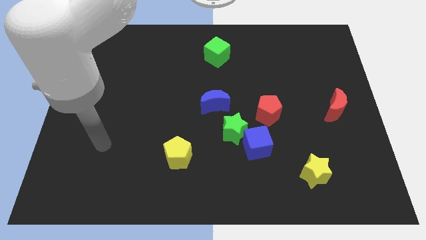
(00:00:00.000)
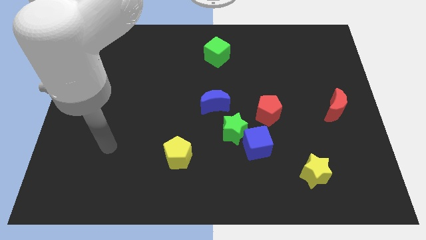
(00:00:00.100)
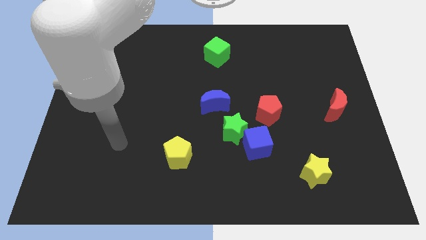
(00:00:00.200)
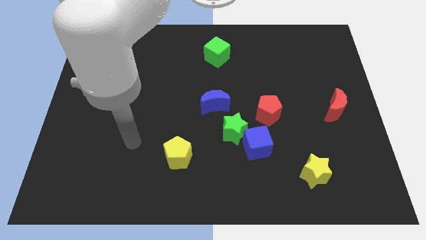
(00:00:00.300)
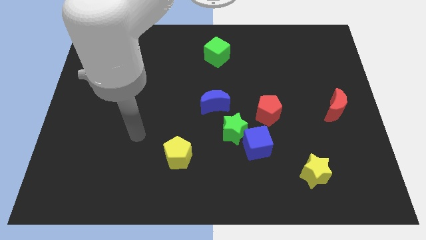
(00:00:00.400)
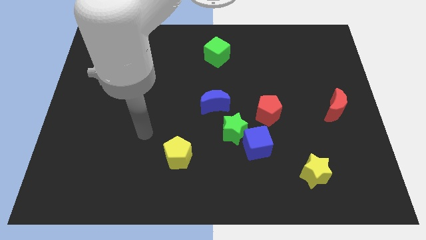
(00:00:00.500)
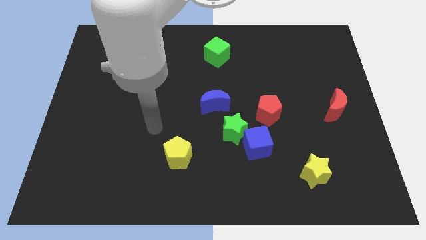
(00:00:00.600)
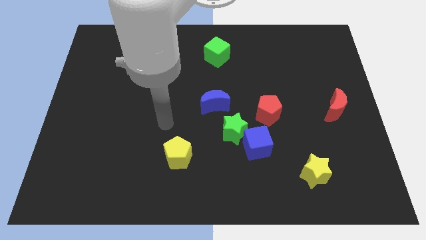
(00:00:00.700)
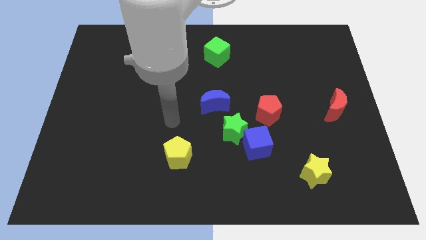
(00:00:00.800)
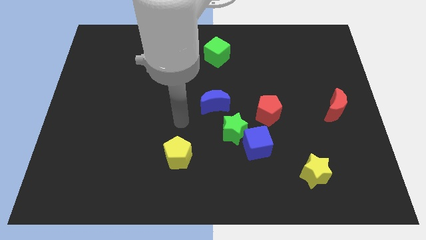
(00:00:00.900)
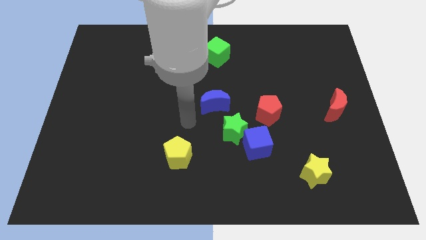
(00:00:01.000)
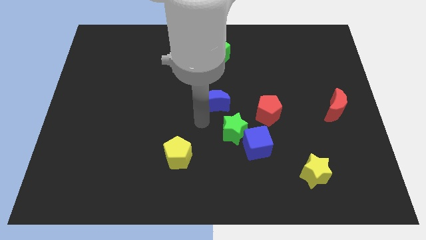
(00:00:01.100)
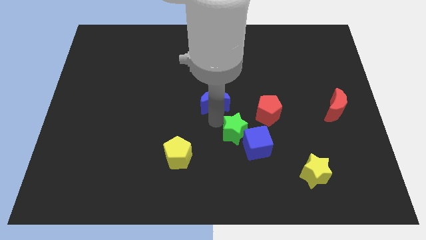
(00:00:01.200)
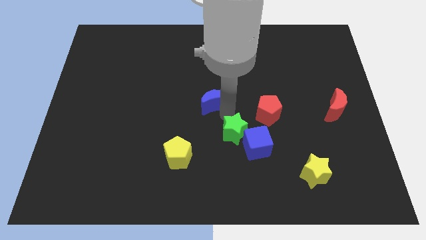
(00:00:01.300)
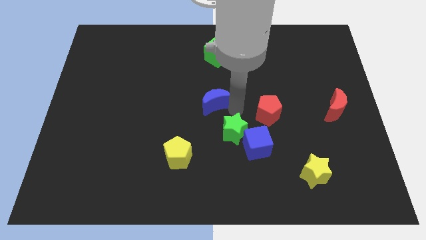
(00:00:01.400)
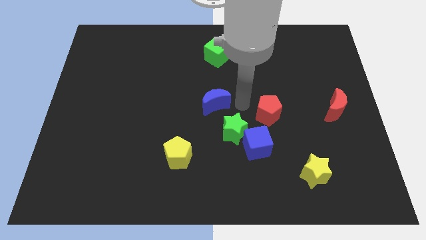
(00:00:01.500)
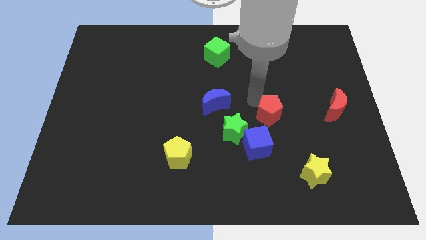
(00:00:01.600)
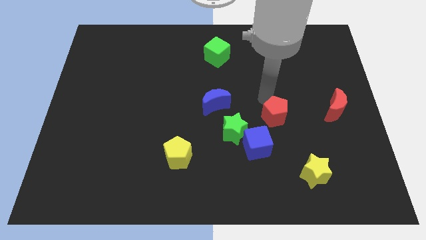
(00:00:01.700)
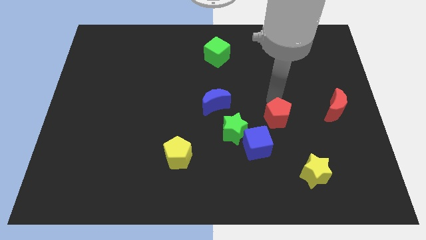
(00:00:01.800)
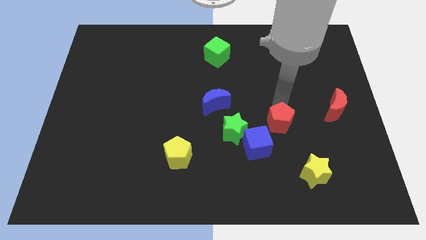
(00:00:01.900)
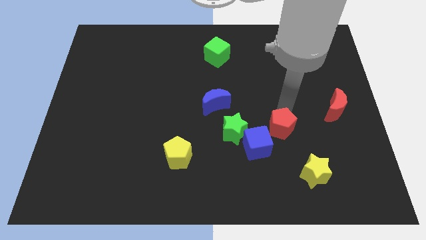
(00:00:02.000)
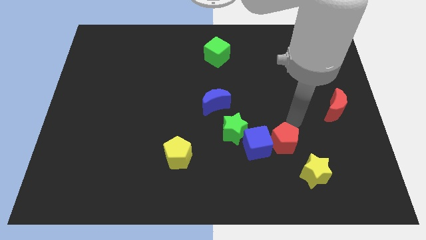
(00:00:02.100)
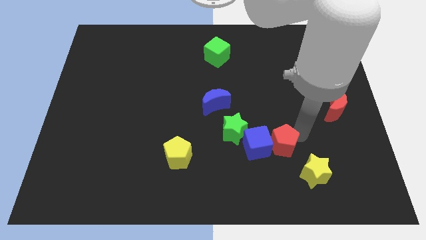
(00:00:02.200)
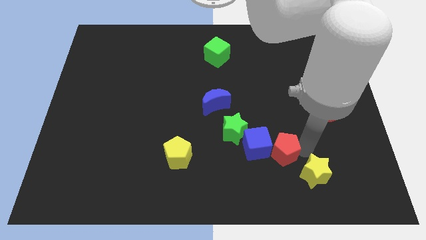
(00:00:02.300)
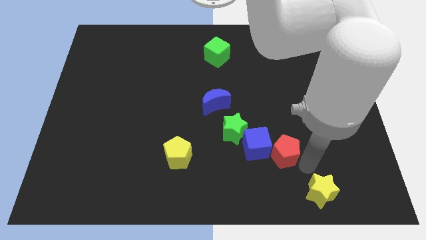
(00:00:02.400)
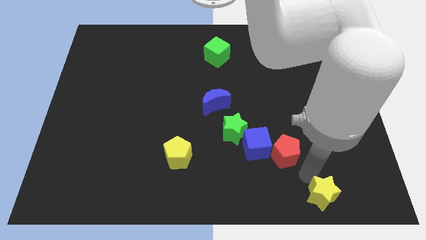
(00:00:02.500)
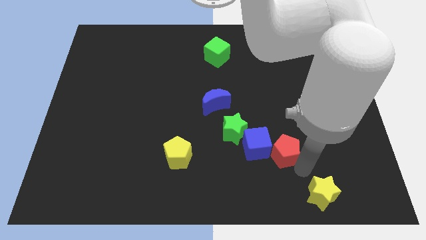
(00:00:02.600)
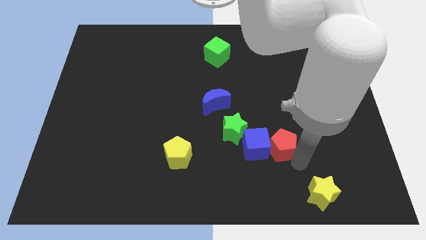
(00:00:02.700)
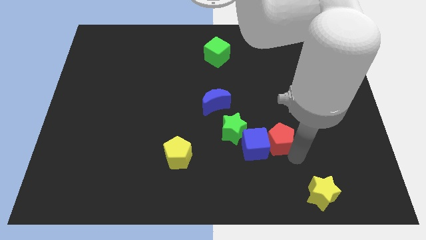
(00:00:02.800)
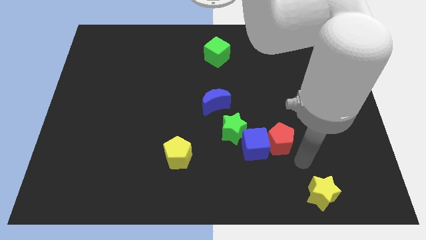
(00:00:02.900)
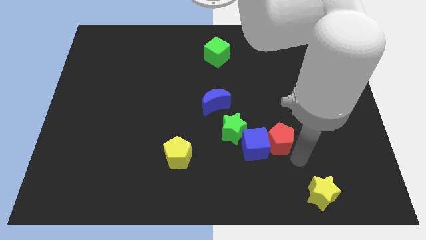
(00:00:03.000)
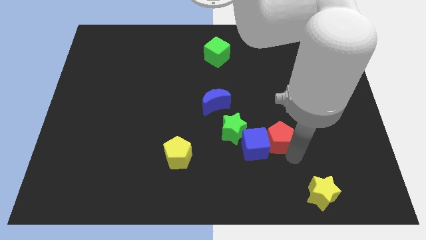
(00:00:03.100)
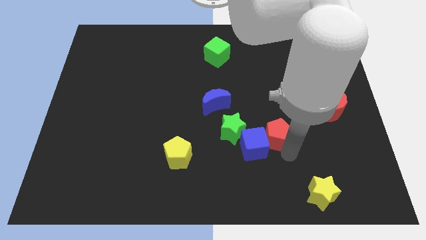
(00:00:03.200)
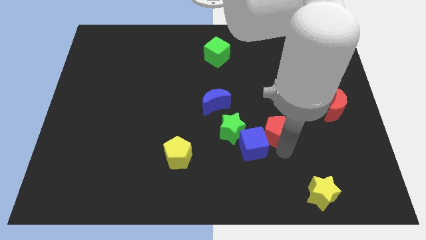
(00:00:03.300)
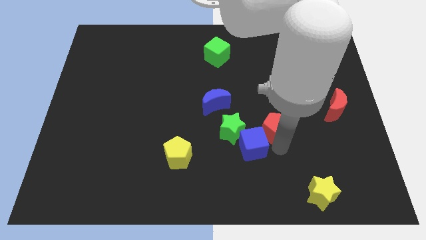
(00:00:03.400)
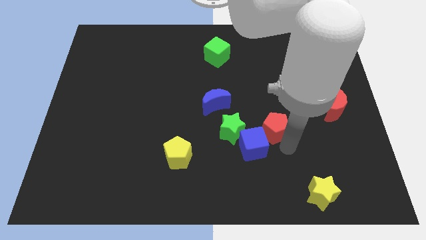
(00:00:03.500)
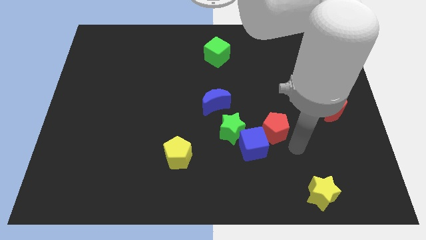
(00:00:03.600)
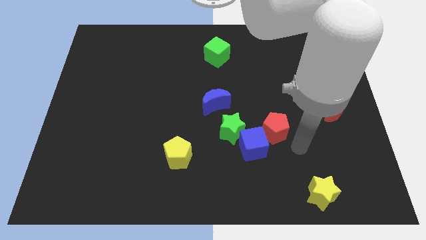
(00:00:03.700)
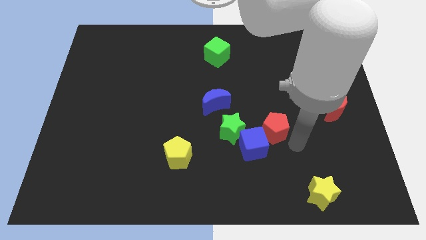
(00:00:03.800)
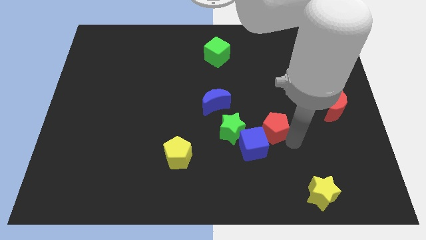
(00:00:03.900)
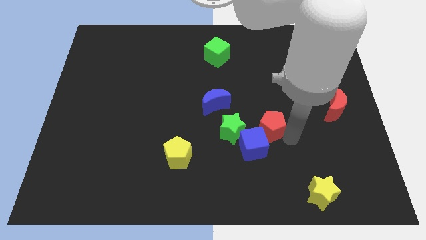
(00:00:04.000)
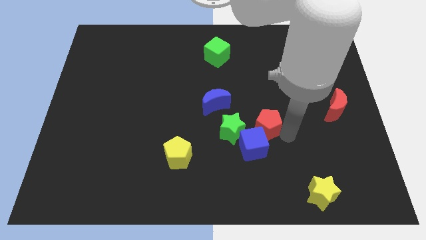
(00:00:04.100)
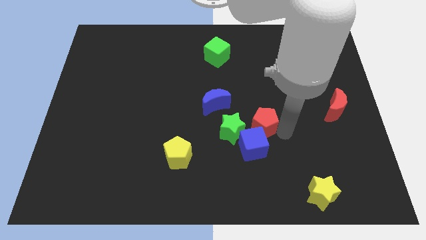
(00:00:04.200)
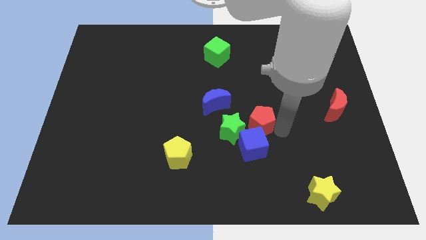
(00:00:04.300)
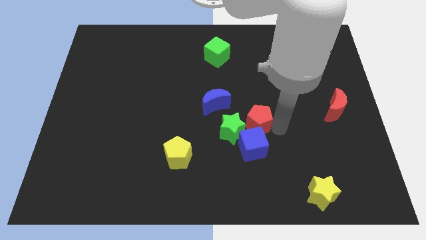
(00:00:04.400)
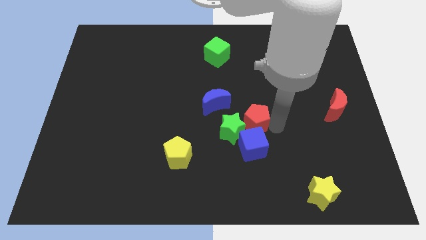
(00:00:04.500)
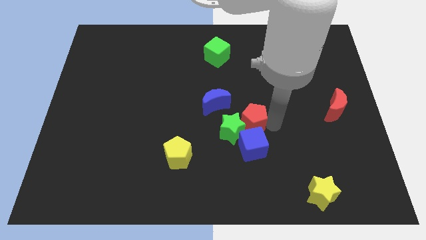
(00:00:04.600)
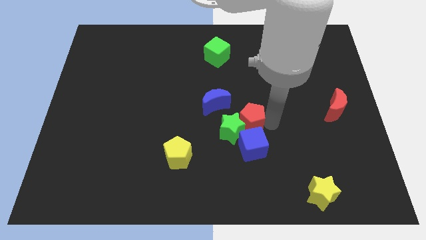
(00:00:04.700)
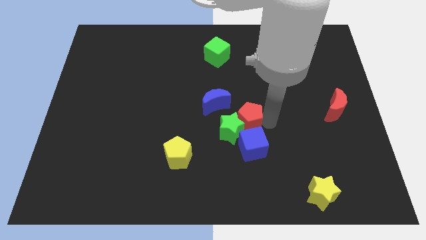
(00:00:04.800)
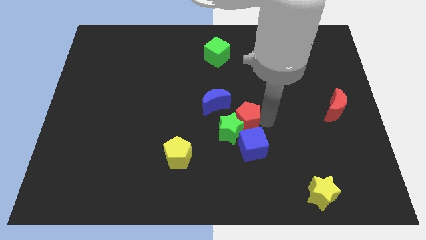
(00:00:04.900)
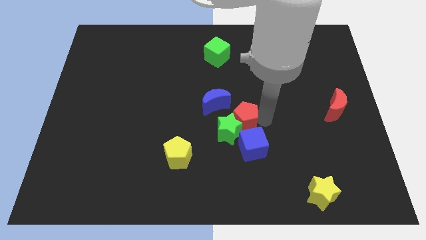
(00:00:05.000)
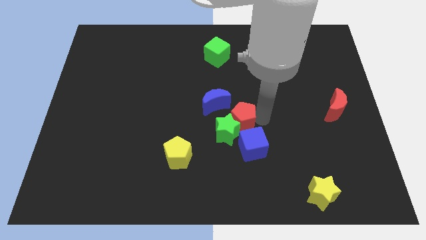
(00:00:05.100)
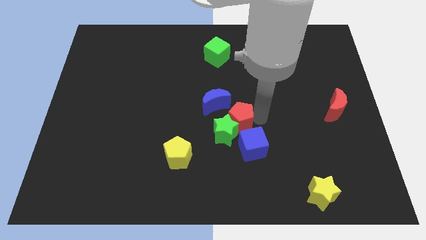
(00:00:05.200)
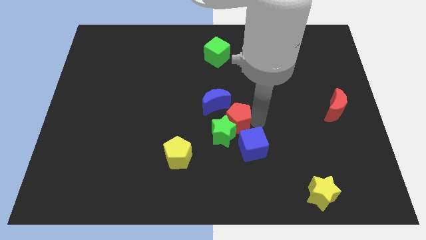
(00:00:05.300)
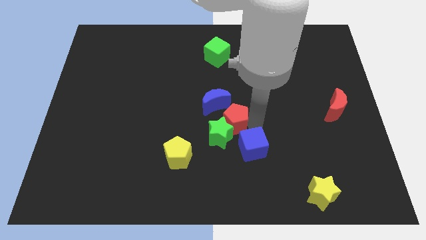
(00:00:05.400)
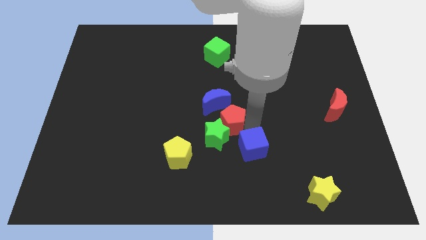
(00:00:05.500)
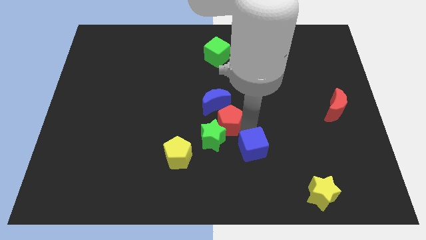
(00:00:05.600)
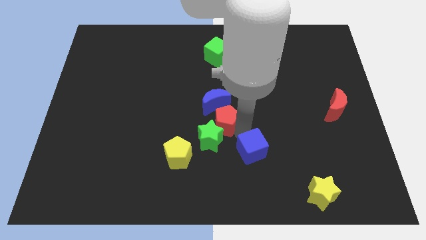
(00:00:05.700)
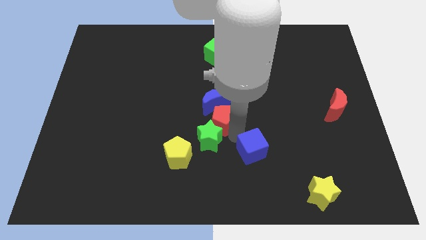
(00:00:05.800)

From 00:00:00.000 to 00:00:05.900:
push the red pentagon close to the blue moon

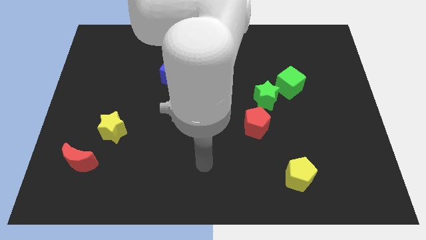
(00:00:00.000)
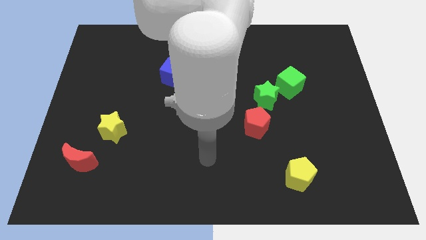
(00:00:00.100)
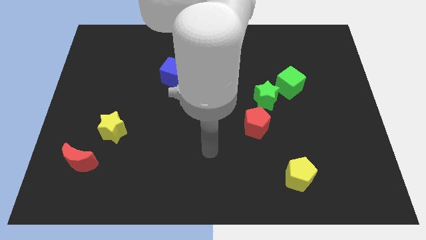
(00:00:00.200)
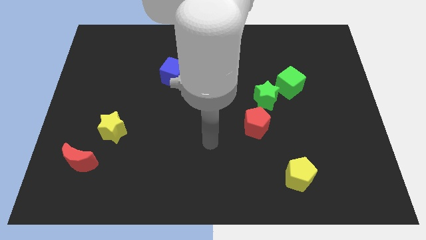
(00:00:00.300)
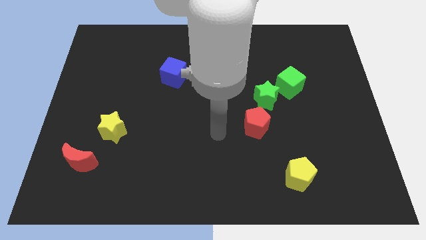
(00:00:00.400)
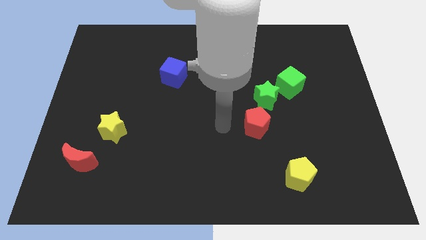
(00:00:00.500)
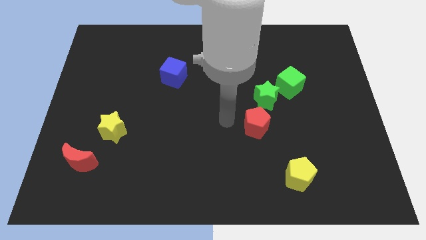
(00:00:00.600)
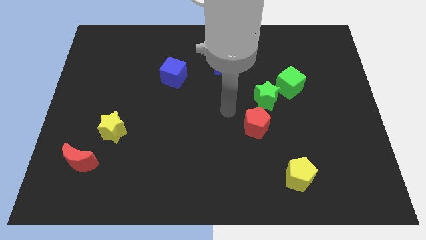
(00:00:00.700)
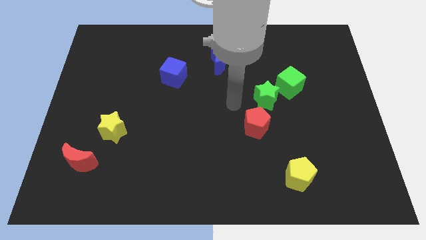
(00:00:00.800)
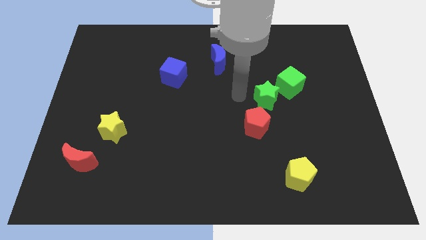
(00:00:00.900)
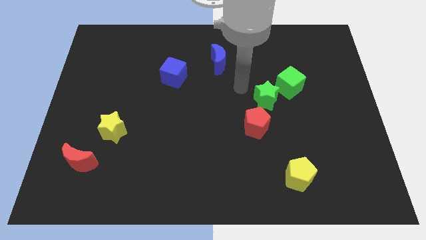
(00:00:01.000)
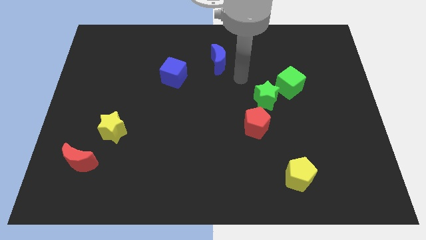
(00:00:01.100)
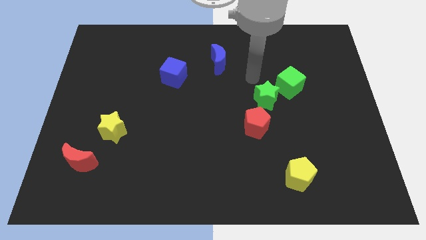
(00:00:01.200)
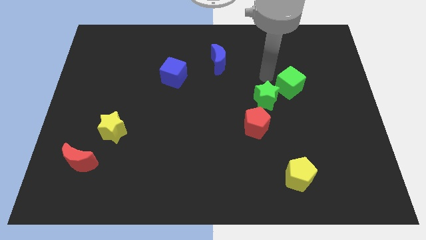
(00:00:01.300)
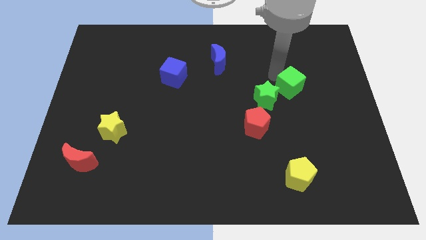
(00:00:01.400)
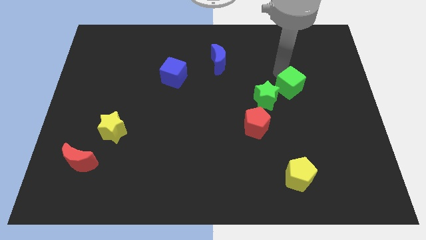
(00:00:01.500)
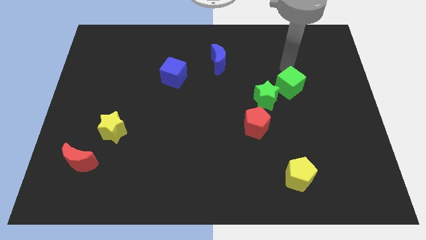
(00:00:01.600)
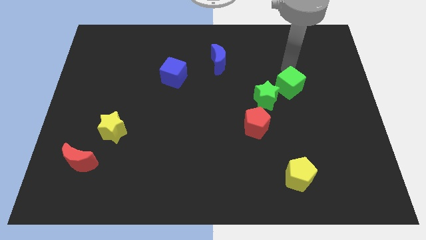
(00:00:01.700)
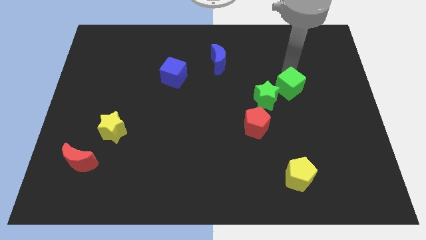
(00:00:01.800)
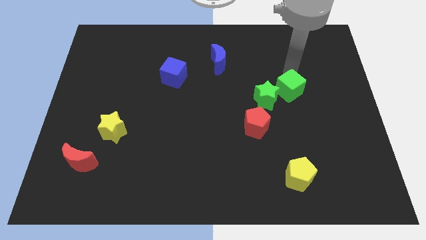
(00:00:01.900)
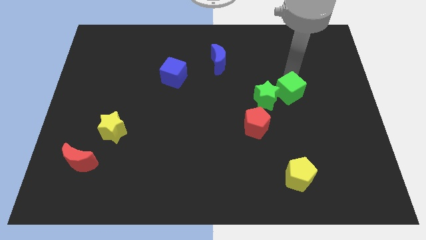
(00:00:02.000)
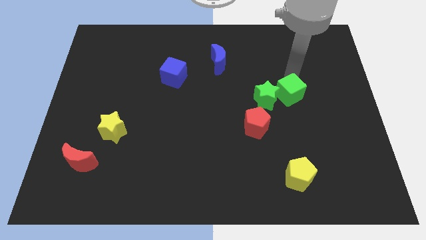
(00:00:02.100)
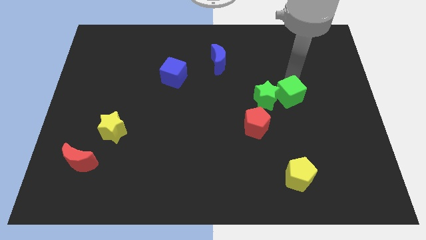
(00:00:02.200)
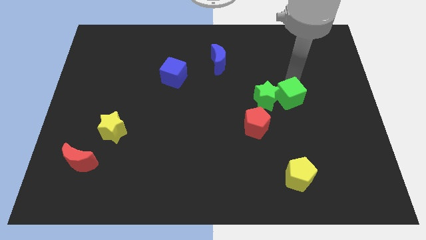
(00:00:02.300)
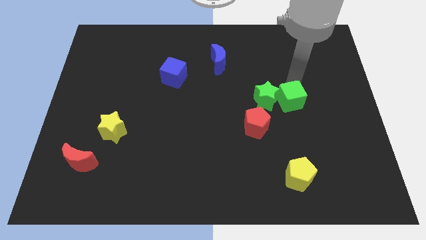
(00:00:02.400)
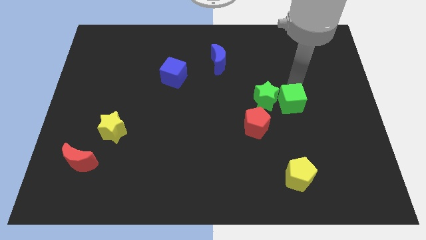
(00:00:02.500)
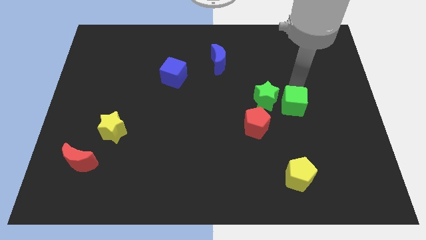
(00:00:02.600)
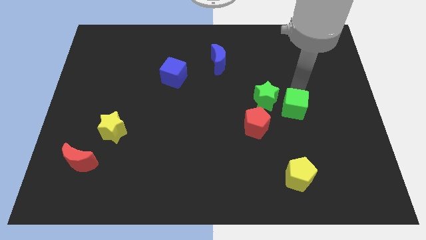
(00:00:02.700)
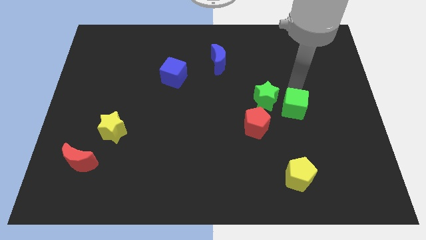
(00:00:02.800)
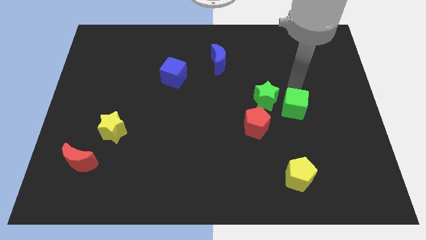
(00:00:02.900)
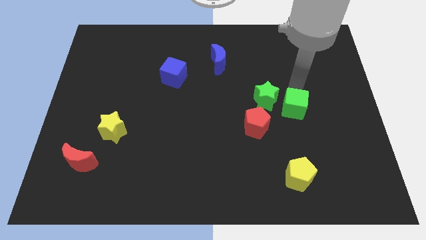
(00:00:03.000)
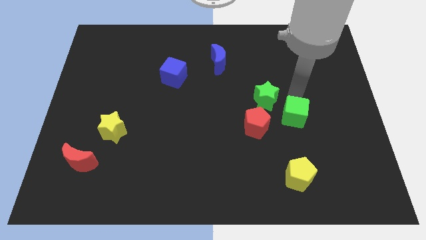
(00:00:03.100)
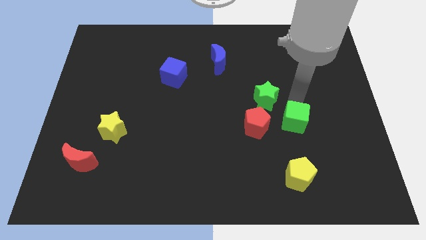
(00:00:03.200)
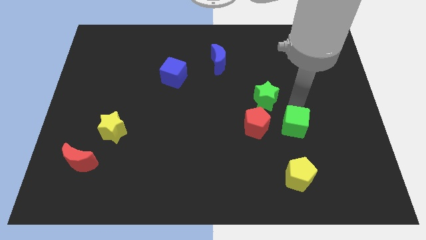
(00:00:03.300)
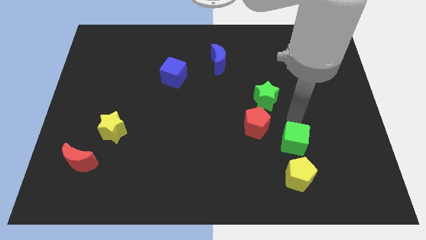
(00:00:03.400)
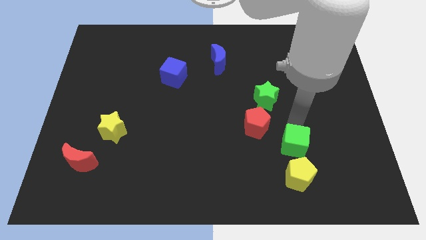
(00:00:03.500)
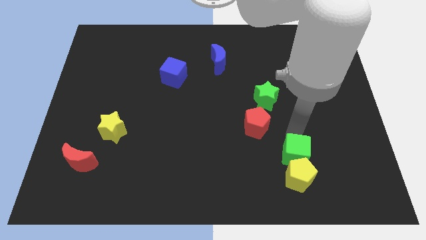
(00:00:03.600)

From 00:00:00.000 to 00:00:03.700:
push the green cube to the yellow pentagon
